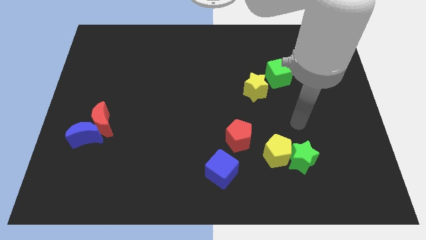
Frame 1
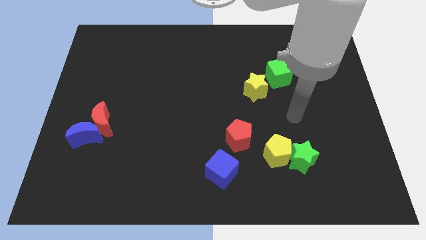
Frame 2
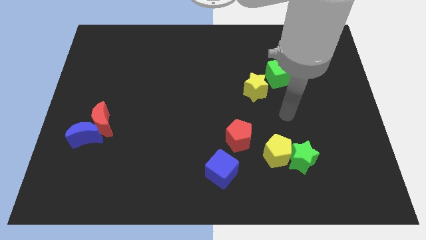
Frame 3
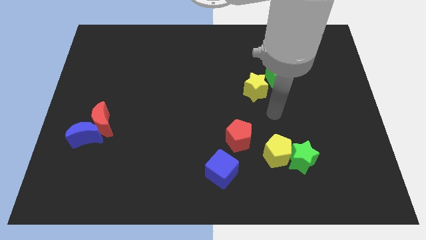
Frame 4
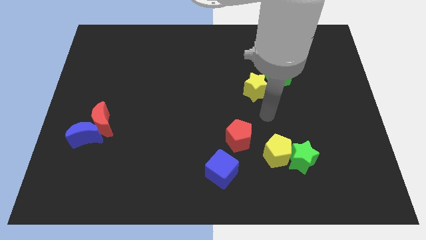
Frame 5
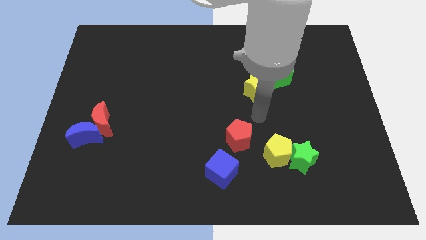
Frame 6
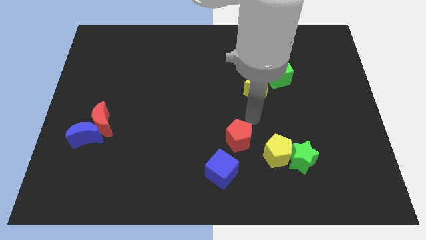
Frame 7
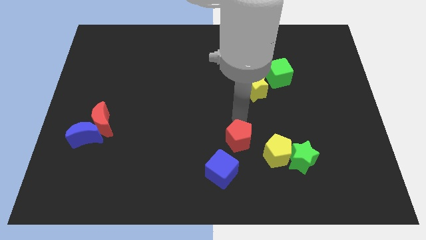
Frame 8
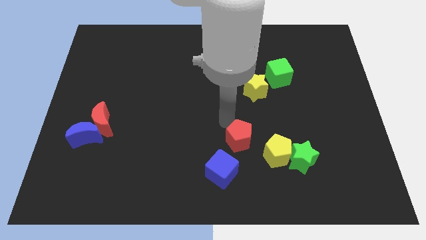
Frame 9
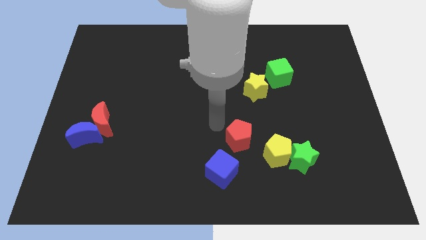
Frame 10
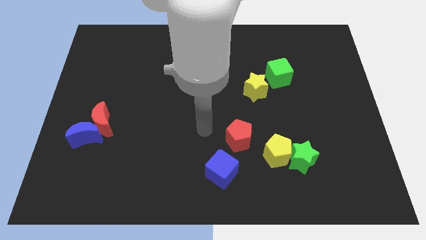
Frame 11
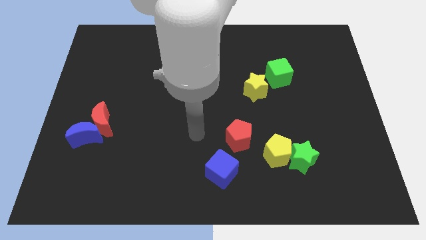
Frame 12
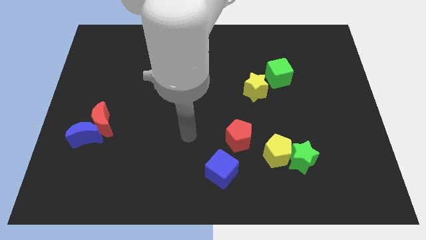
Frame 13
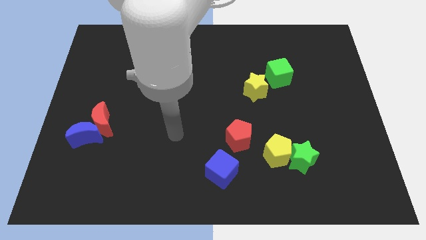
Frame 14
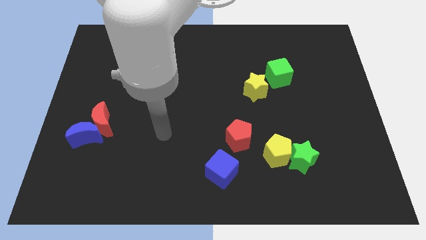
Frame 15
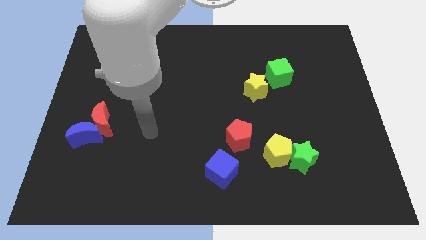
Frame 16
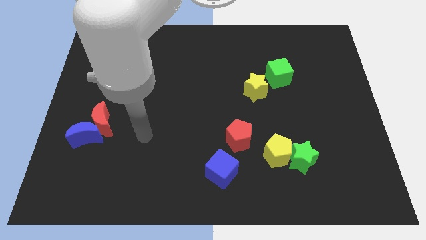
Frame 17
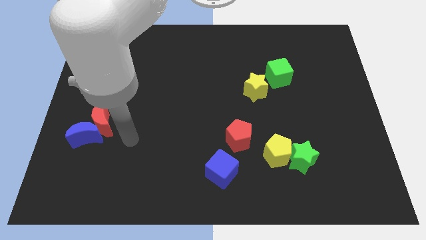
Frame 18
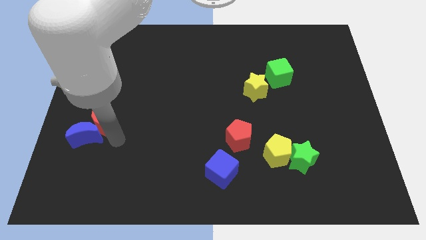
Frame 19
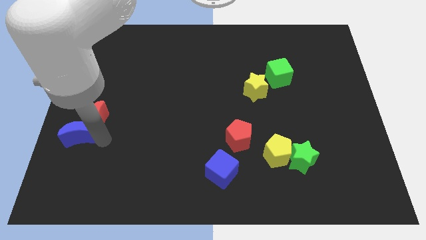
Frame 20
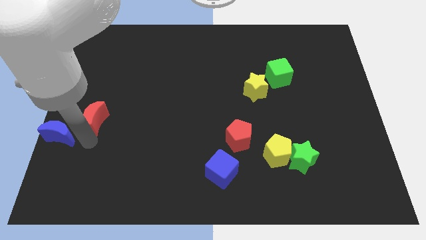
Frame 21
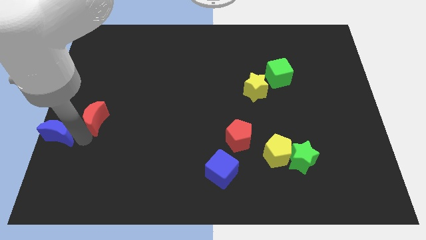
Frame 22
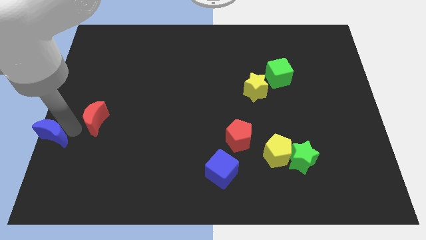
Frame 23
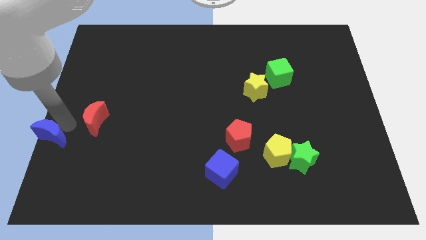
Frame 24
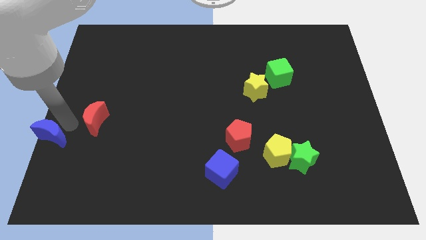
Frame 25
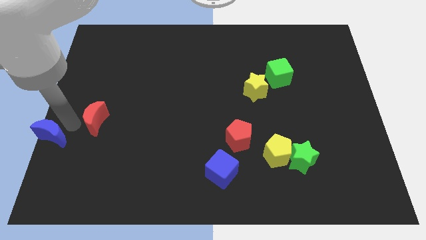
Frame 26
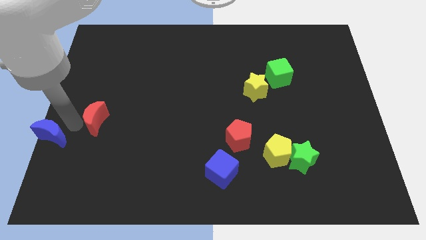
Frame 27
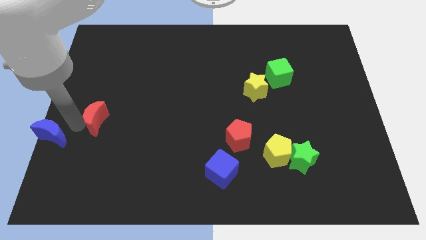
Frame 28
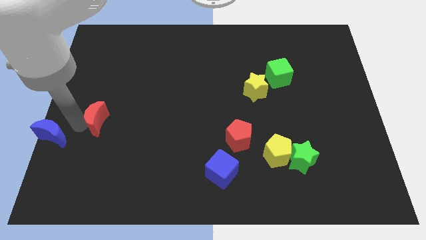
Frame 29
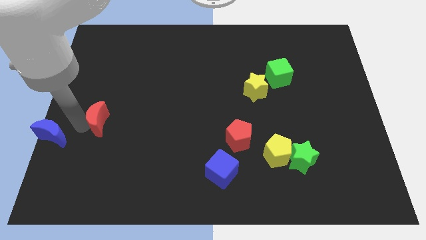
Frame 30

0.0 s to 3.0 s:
move the red moon away from the blue moon

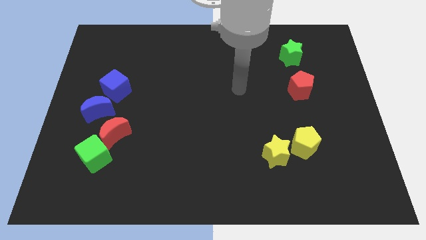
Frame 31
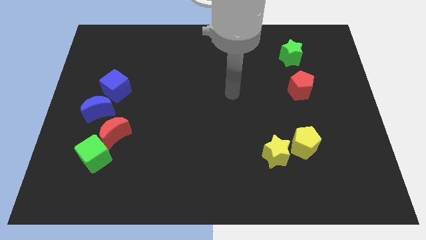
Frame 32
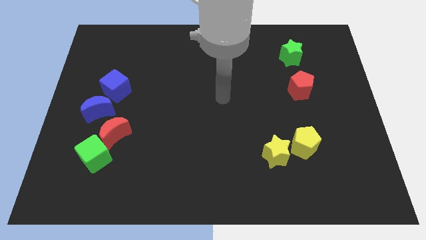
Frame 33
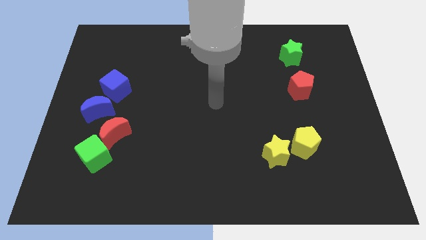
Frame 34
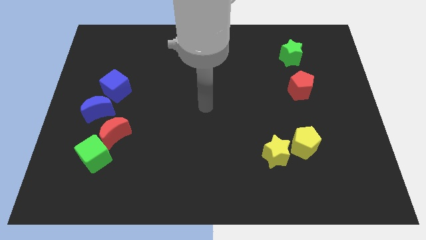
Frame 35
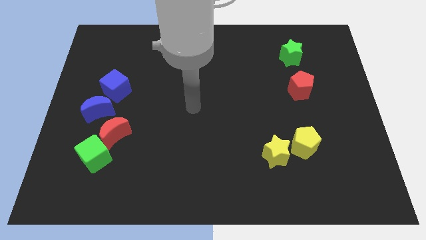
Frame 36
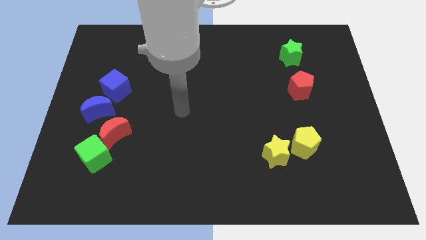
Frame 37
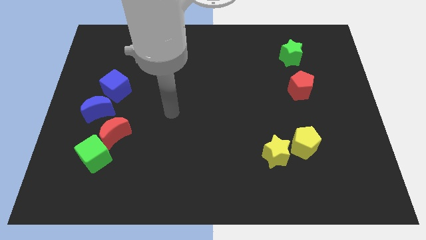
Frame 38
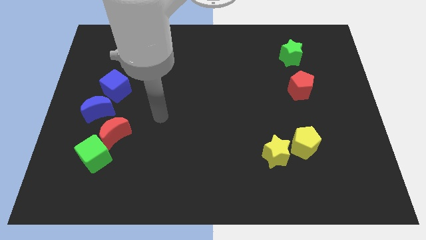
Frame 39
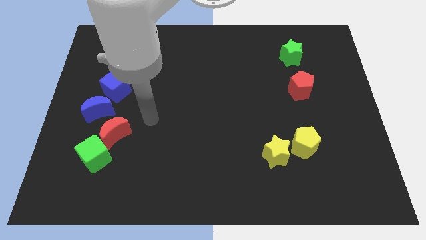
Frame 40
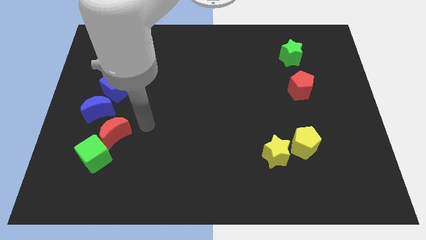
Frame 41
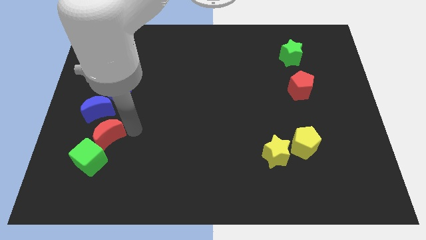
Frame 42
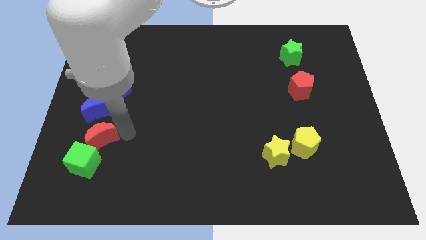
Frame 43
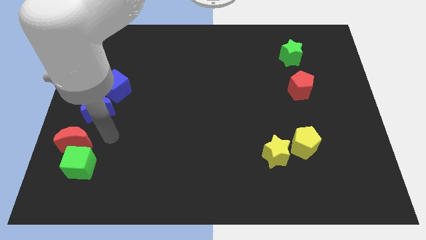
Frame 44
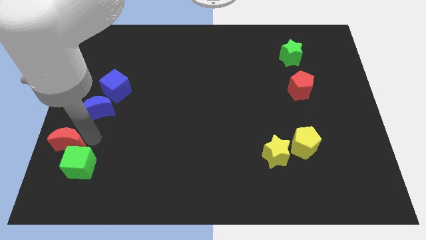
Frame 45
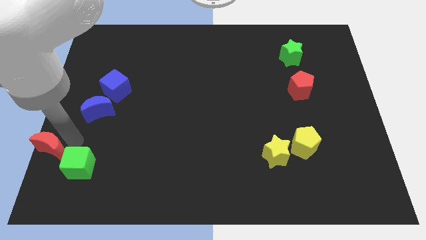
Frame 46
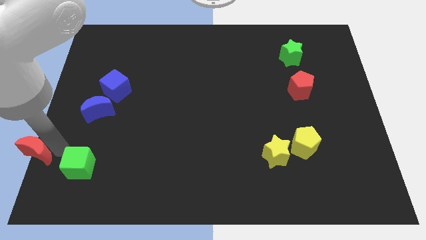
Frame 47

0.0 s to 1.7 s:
move the green cube away from the red moon

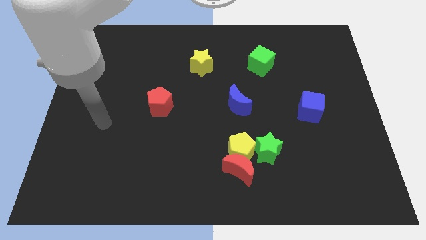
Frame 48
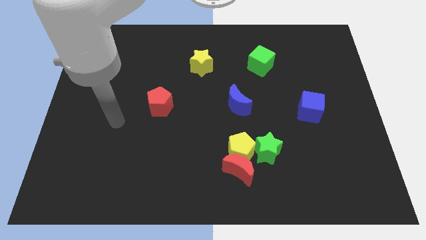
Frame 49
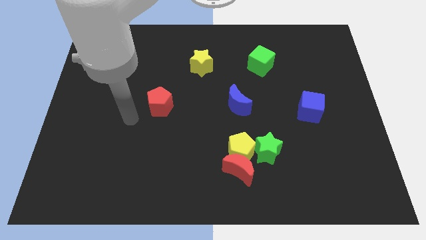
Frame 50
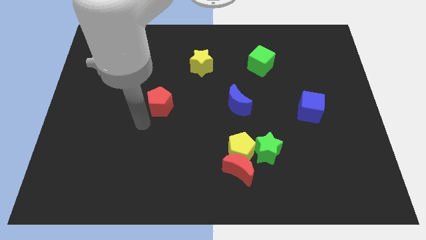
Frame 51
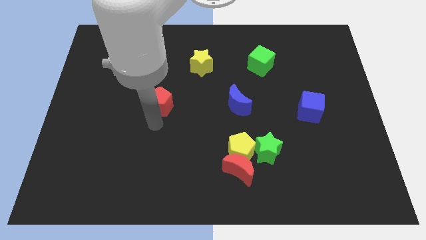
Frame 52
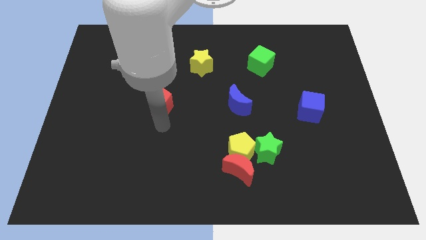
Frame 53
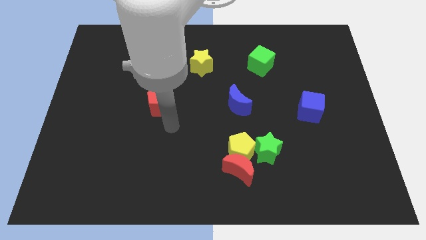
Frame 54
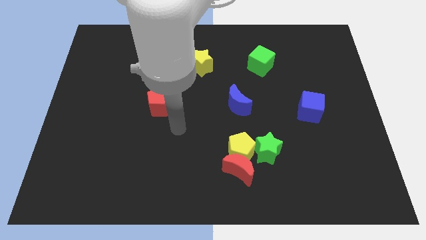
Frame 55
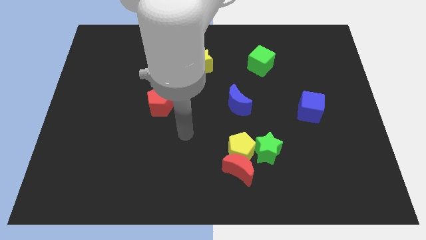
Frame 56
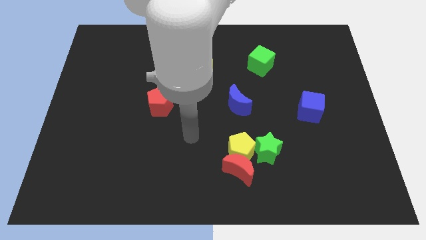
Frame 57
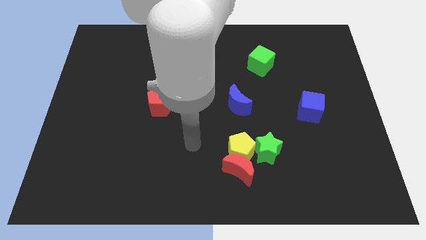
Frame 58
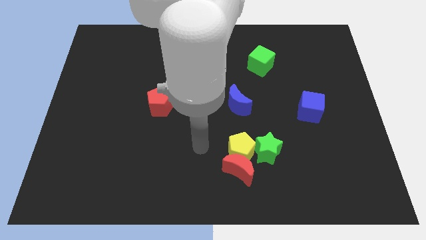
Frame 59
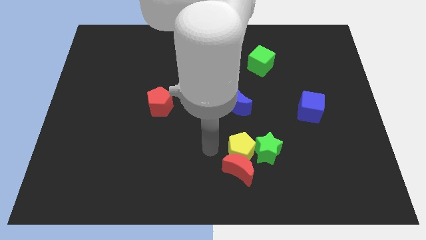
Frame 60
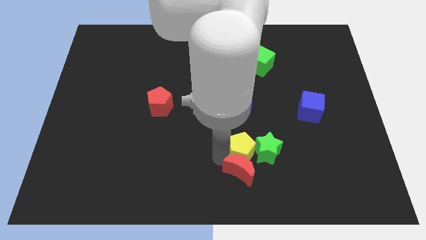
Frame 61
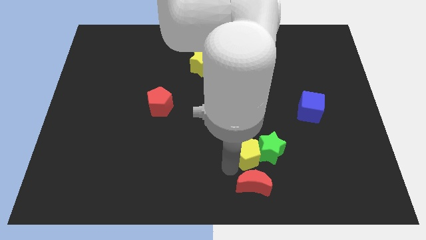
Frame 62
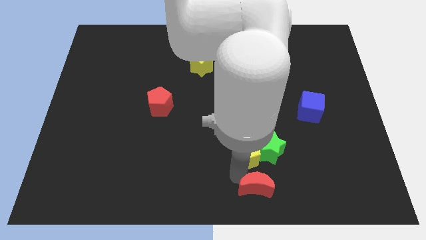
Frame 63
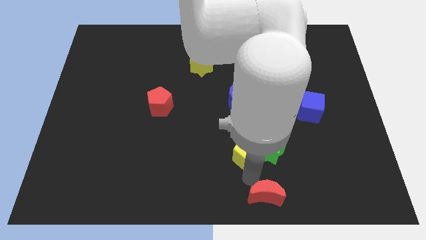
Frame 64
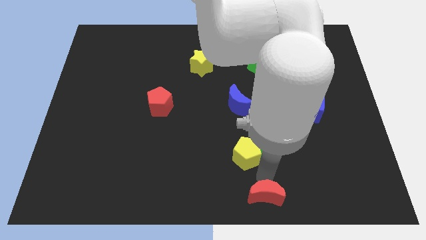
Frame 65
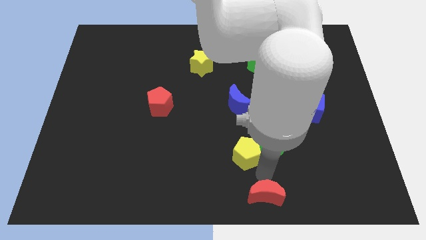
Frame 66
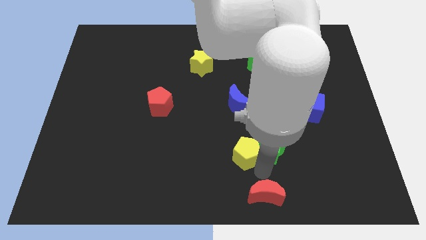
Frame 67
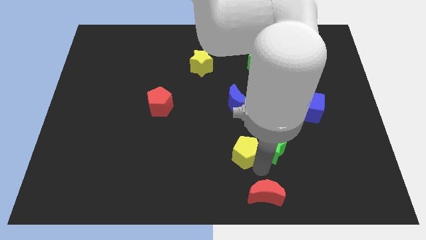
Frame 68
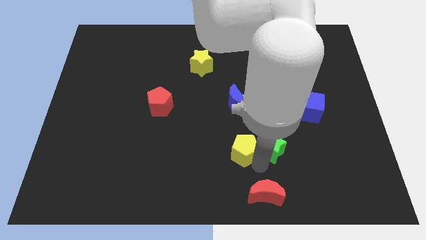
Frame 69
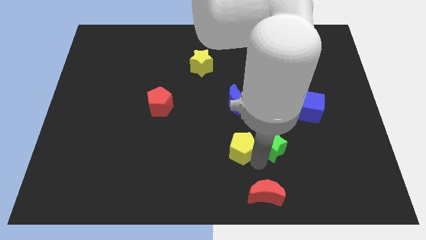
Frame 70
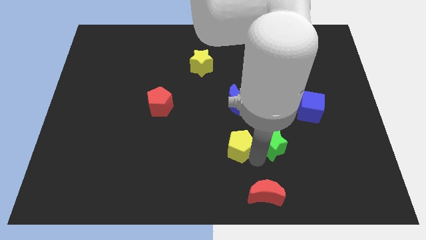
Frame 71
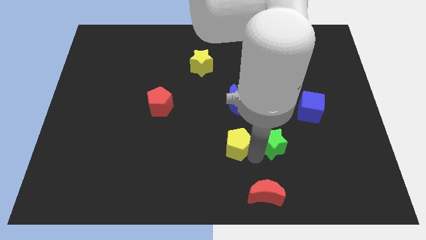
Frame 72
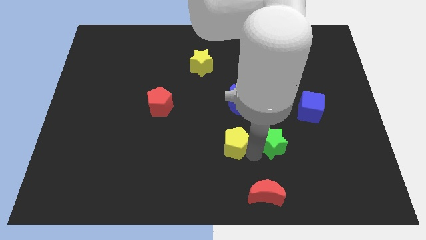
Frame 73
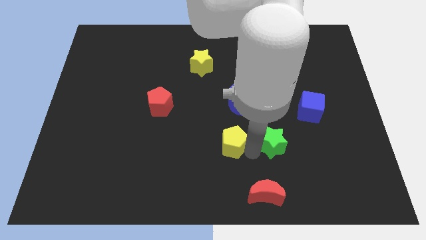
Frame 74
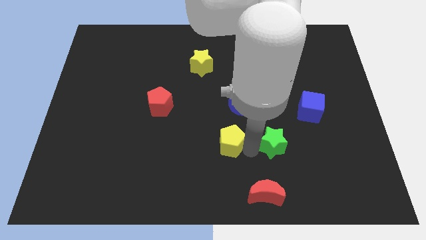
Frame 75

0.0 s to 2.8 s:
pull the yellow pentagon apart from the red moon and green star

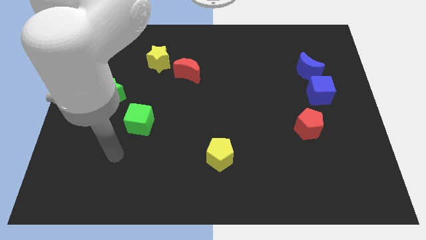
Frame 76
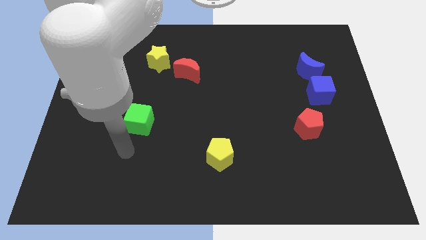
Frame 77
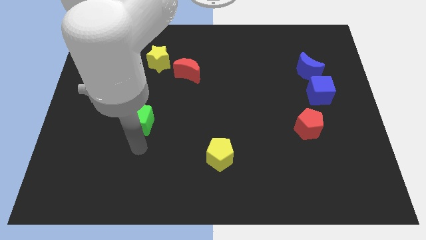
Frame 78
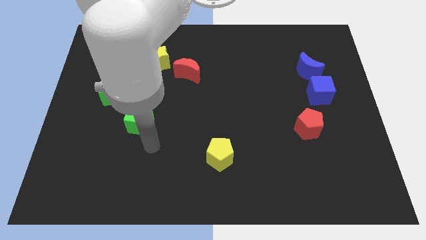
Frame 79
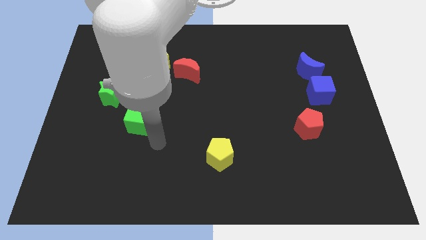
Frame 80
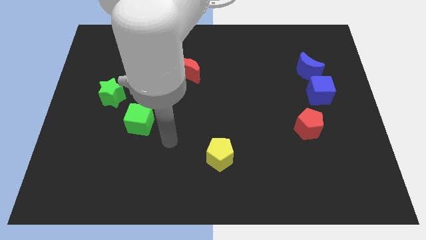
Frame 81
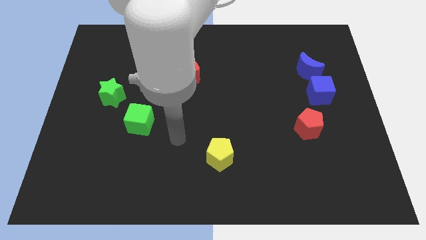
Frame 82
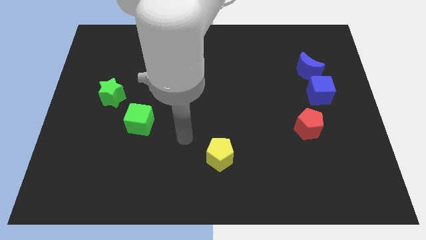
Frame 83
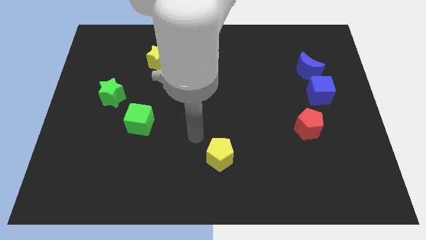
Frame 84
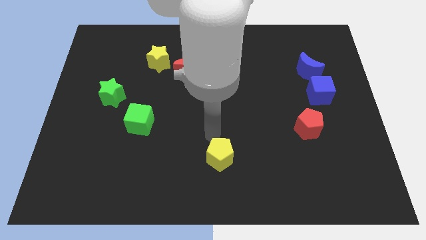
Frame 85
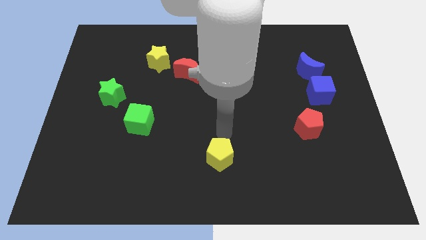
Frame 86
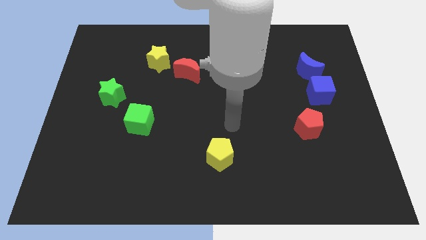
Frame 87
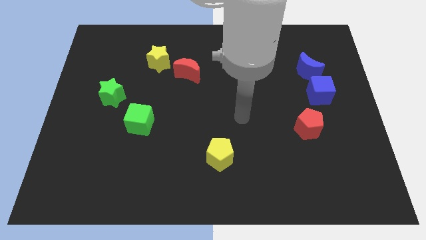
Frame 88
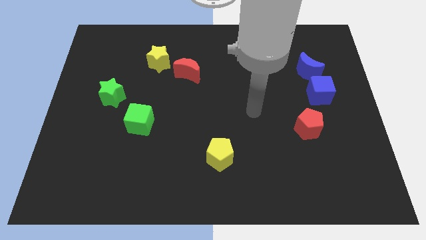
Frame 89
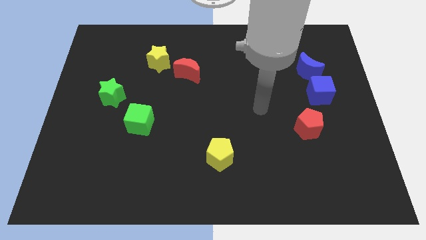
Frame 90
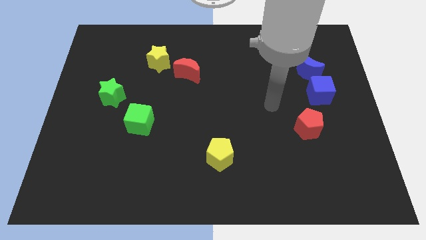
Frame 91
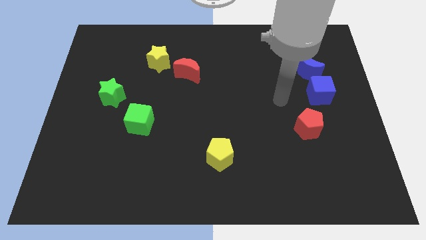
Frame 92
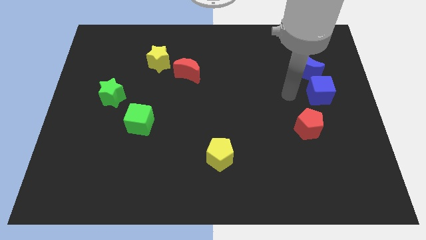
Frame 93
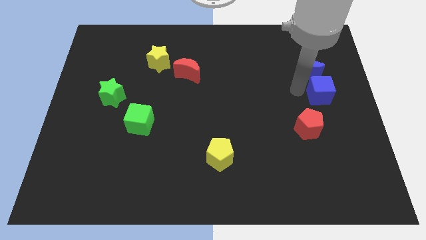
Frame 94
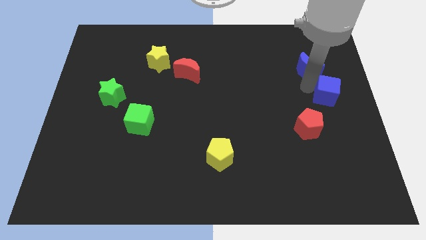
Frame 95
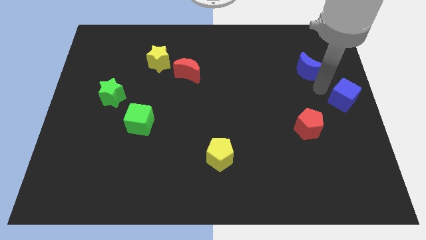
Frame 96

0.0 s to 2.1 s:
separate the blue moon from the blue cube
